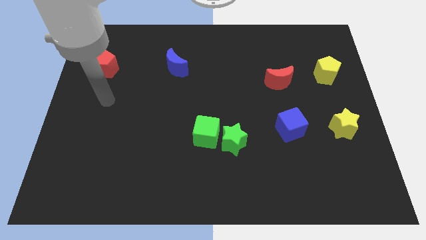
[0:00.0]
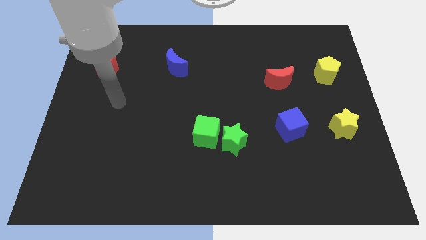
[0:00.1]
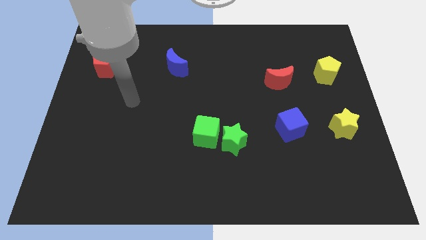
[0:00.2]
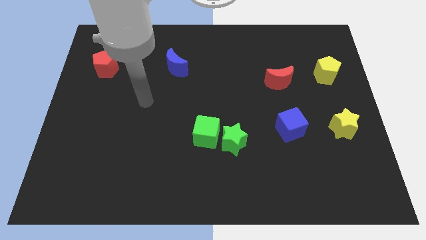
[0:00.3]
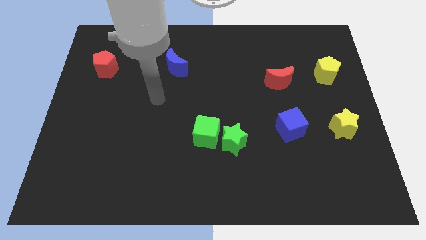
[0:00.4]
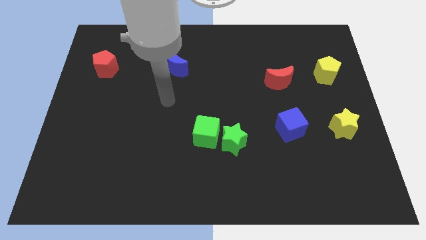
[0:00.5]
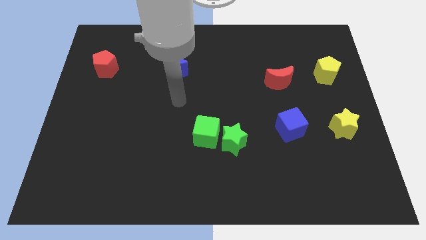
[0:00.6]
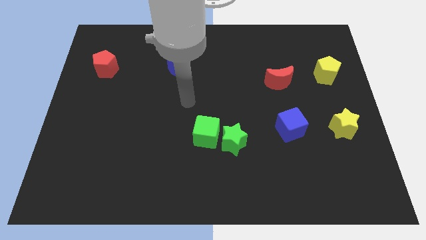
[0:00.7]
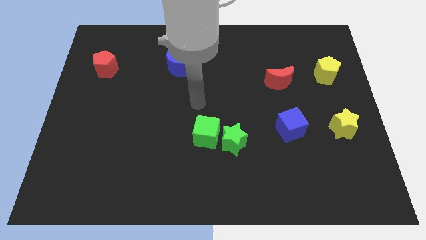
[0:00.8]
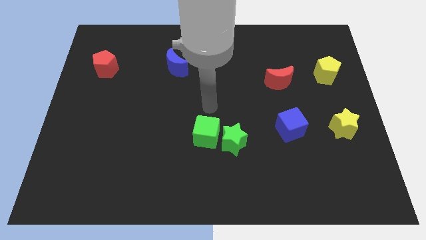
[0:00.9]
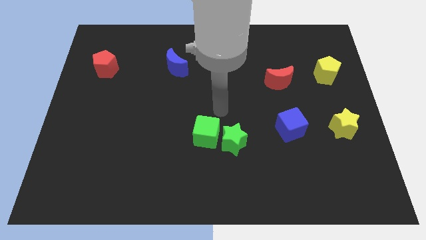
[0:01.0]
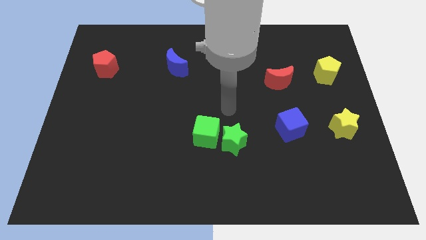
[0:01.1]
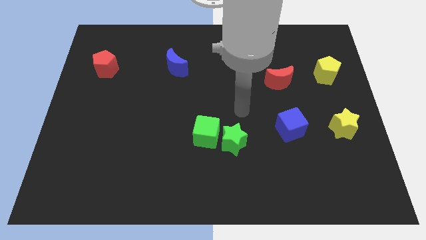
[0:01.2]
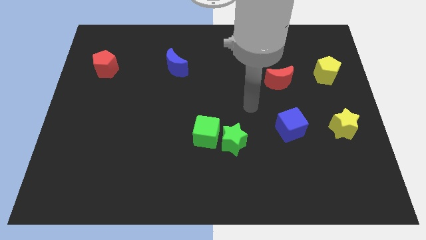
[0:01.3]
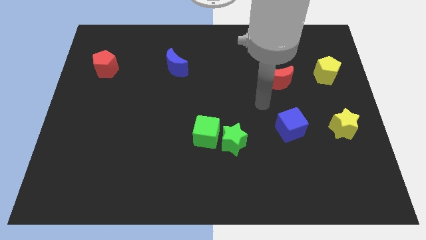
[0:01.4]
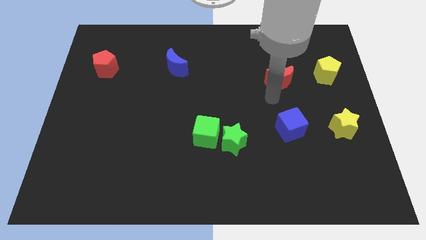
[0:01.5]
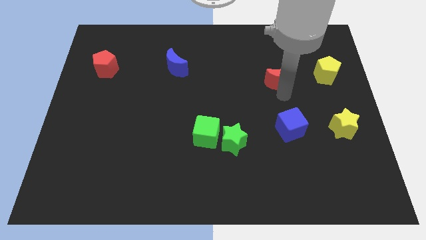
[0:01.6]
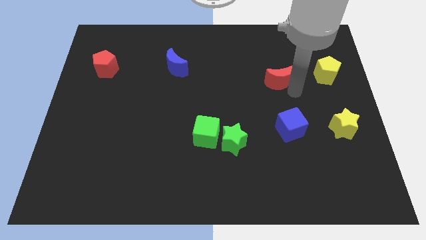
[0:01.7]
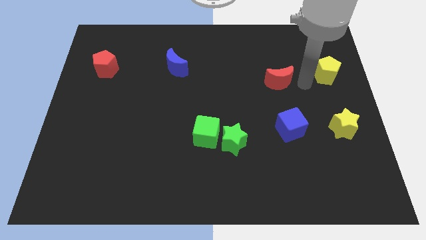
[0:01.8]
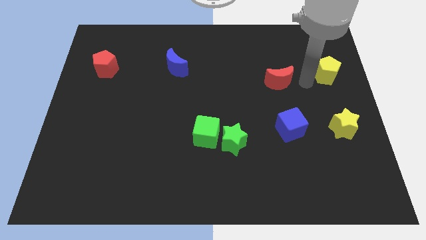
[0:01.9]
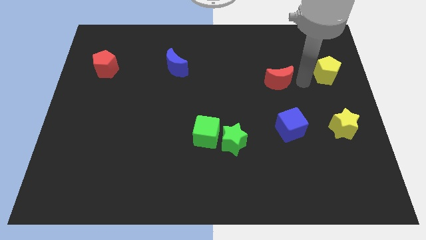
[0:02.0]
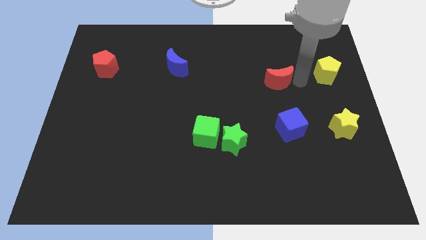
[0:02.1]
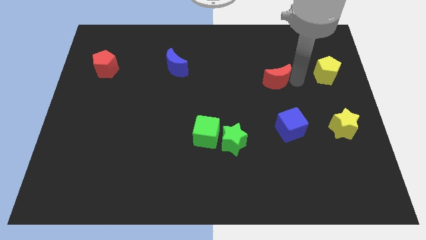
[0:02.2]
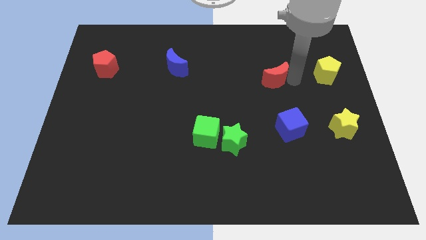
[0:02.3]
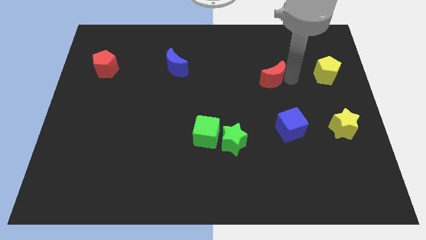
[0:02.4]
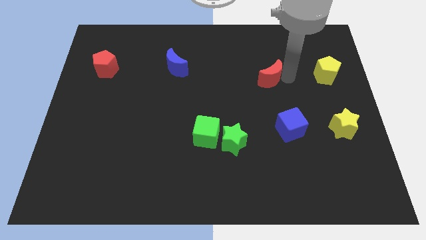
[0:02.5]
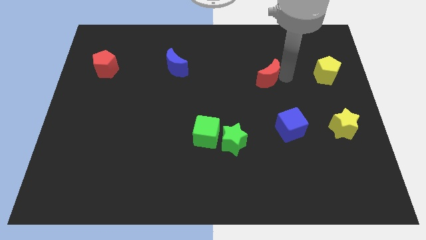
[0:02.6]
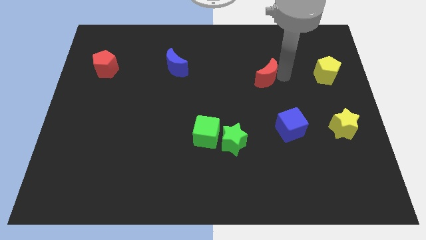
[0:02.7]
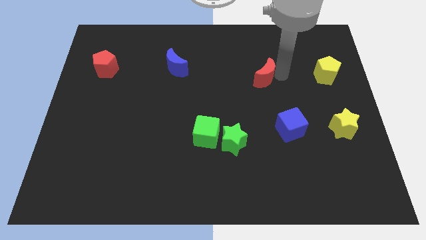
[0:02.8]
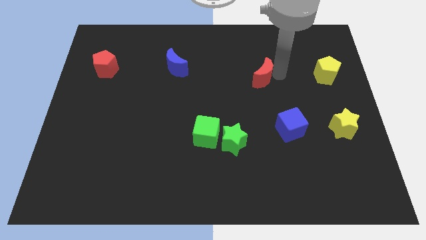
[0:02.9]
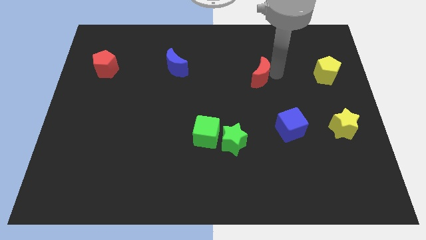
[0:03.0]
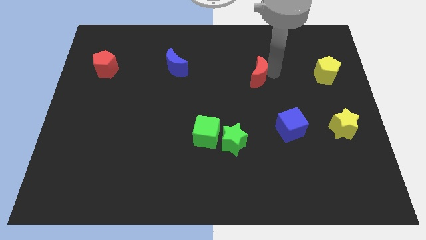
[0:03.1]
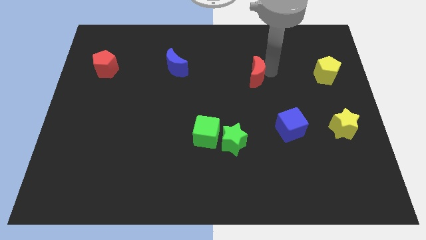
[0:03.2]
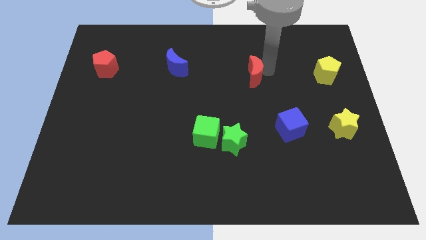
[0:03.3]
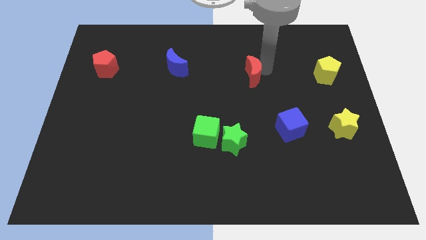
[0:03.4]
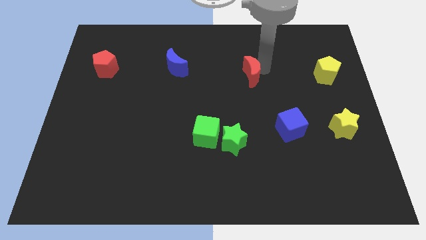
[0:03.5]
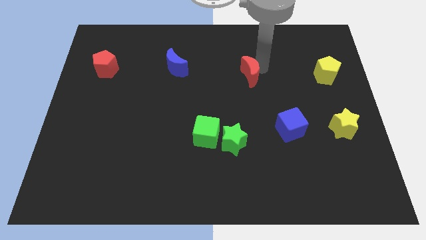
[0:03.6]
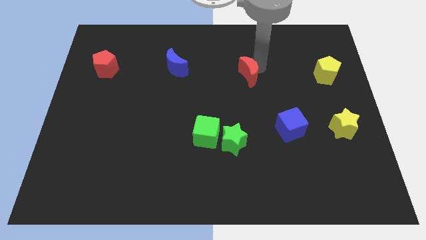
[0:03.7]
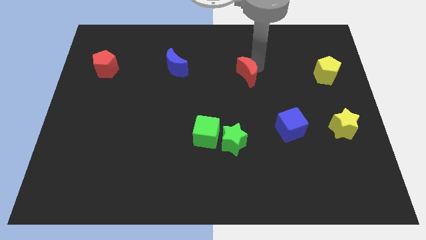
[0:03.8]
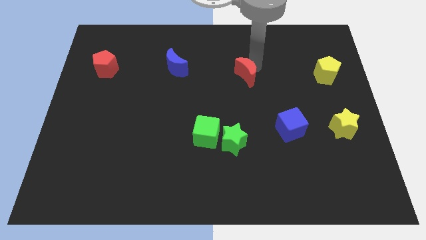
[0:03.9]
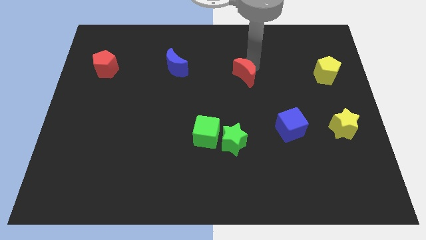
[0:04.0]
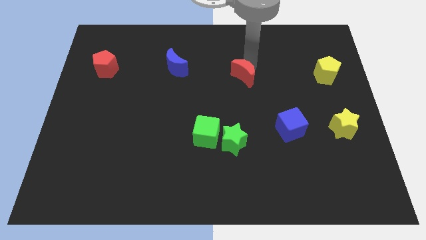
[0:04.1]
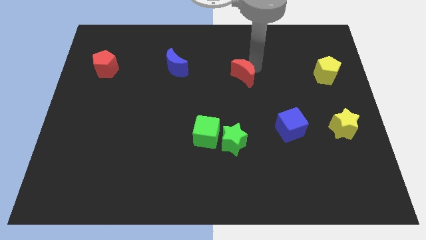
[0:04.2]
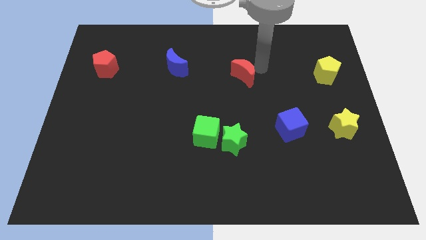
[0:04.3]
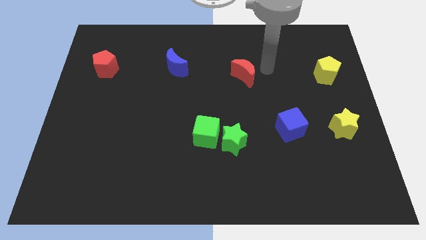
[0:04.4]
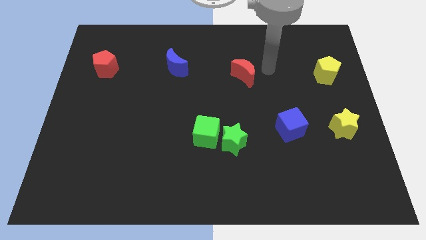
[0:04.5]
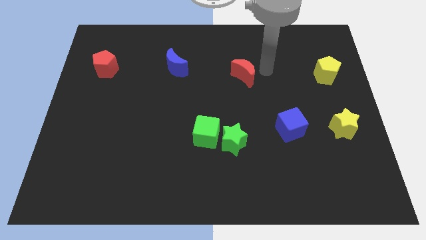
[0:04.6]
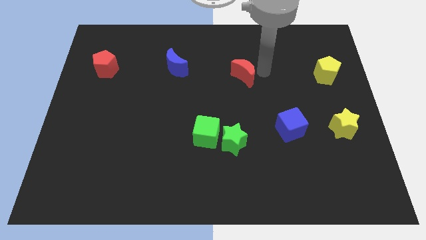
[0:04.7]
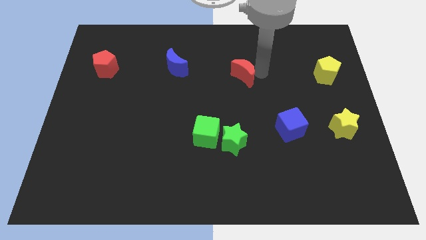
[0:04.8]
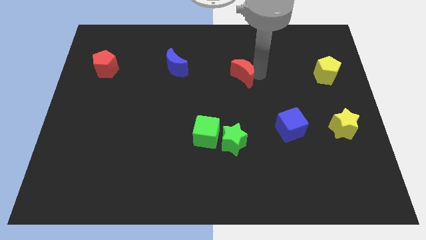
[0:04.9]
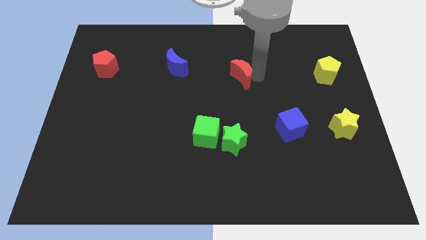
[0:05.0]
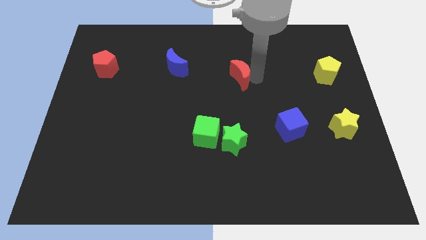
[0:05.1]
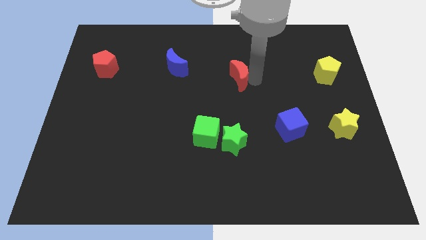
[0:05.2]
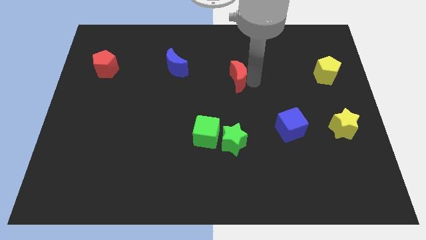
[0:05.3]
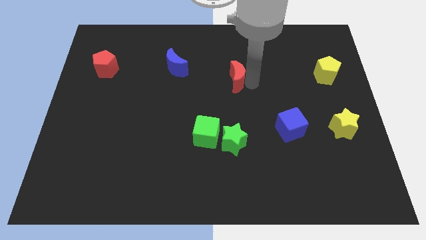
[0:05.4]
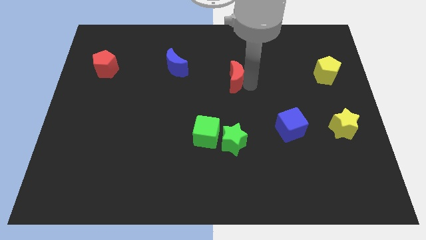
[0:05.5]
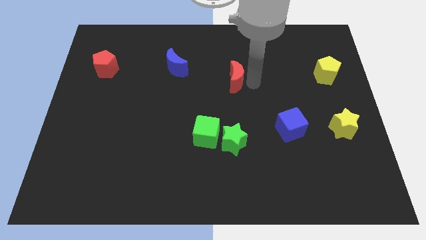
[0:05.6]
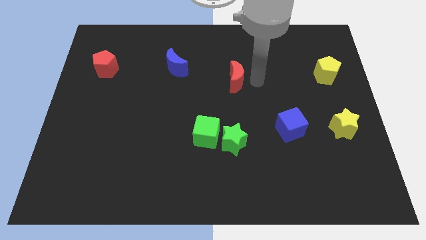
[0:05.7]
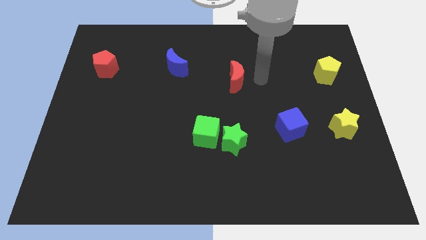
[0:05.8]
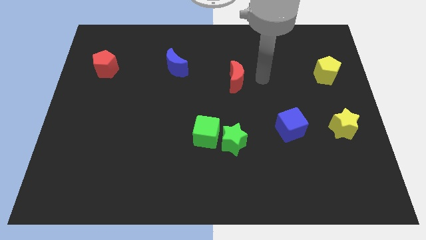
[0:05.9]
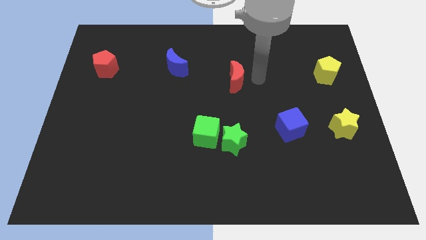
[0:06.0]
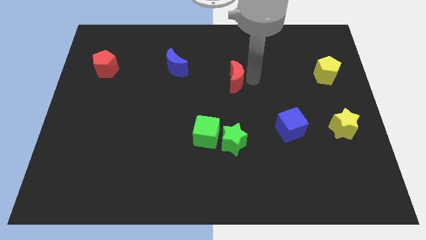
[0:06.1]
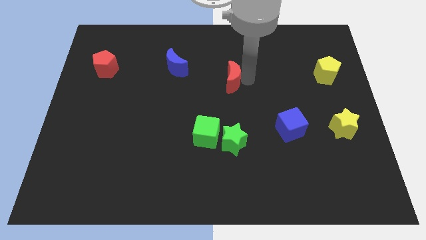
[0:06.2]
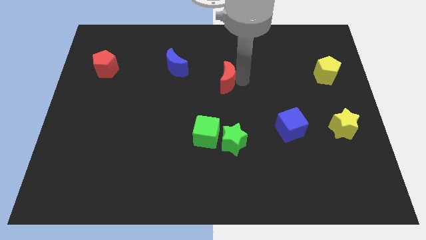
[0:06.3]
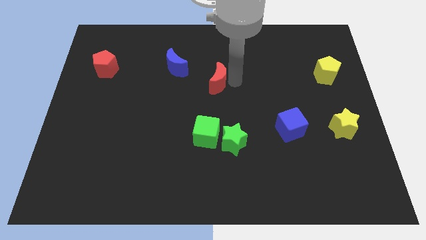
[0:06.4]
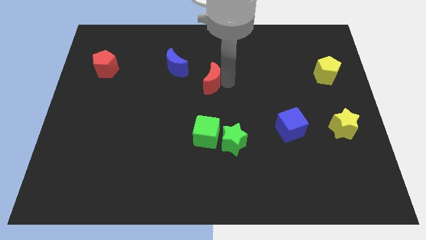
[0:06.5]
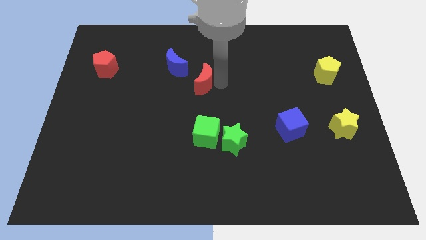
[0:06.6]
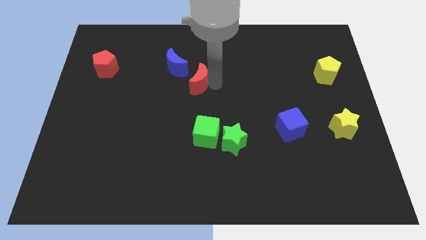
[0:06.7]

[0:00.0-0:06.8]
push the red moon to the left

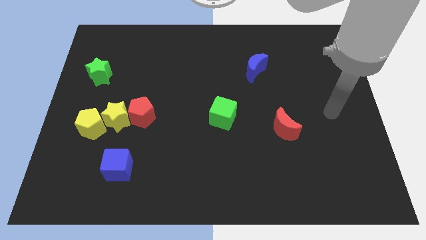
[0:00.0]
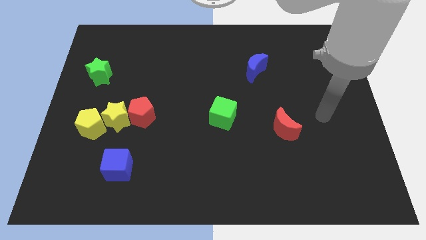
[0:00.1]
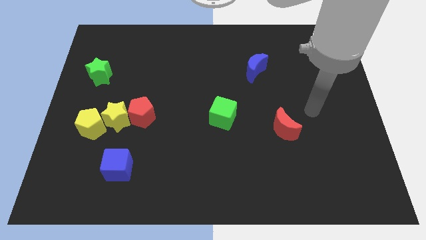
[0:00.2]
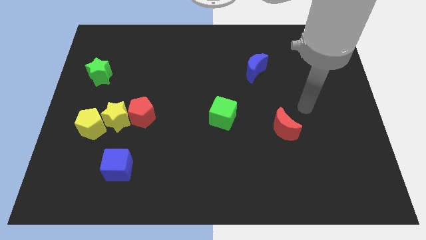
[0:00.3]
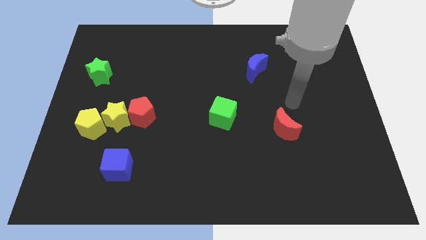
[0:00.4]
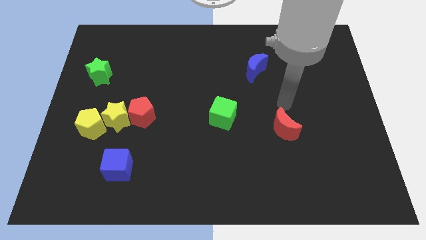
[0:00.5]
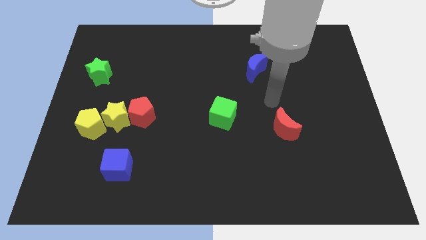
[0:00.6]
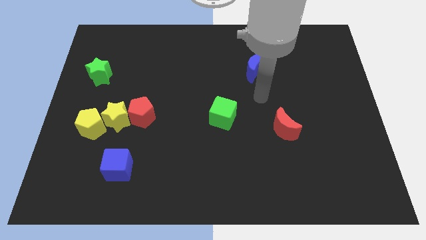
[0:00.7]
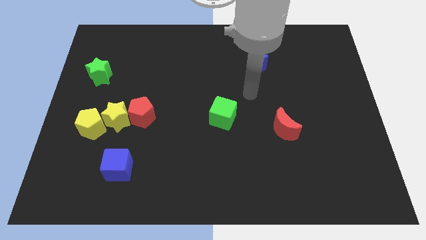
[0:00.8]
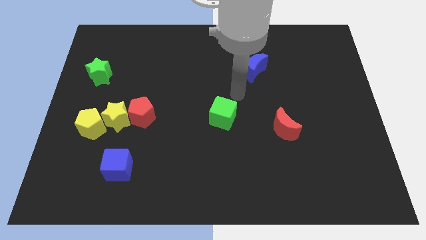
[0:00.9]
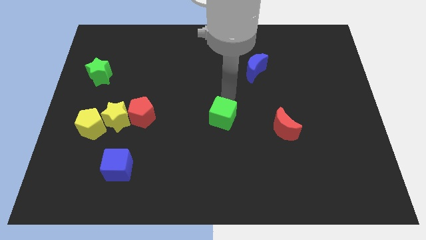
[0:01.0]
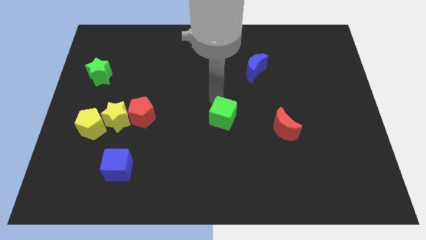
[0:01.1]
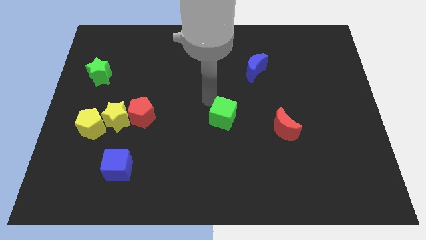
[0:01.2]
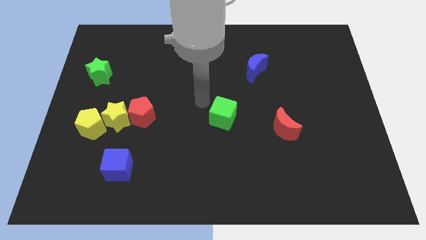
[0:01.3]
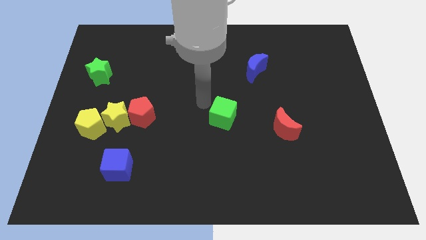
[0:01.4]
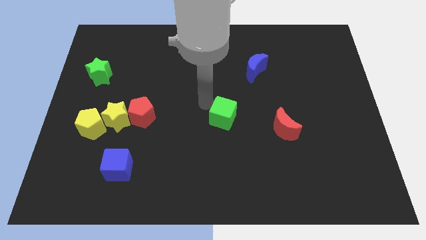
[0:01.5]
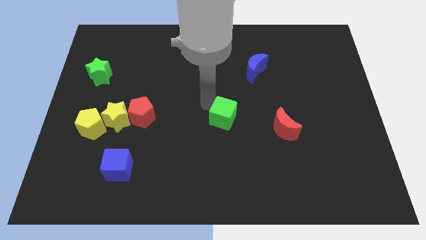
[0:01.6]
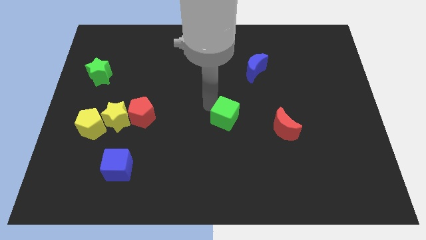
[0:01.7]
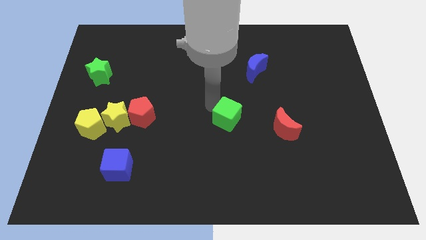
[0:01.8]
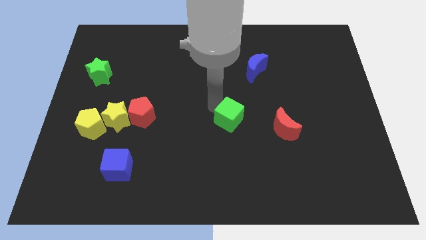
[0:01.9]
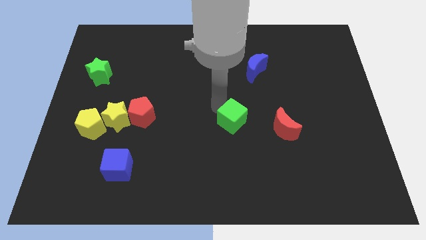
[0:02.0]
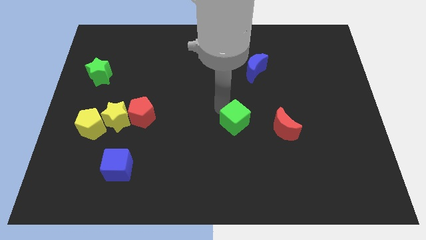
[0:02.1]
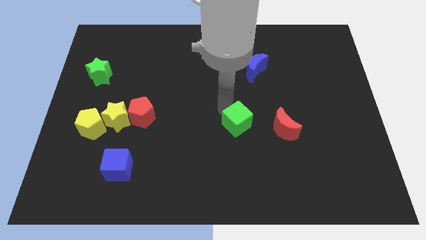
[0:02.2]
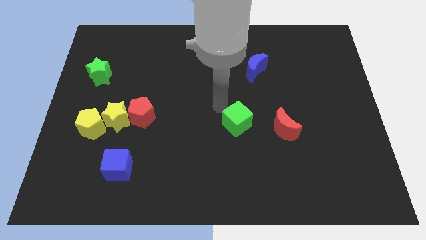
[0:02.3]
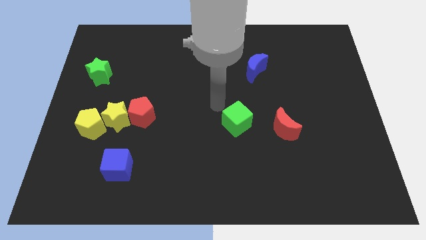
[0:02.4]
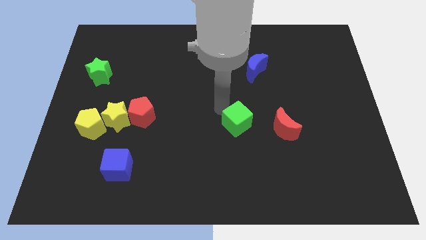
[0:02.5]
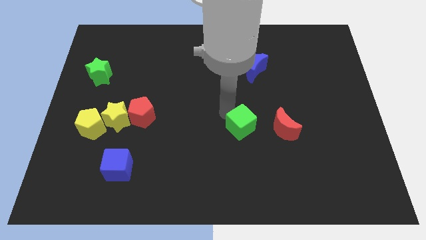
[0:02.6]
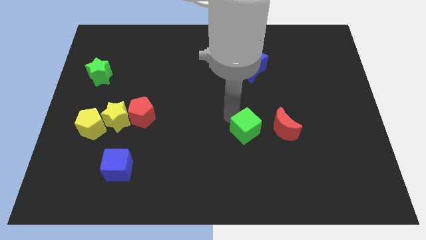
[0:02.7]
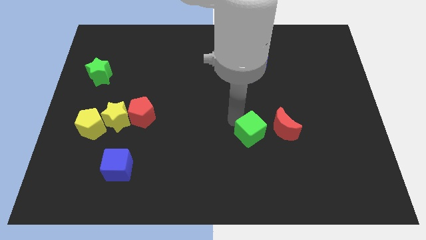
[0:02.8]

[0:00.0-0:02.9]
move the green cube slightly downwards and then to the right
